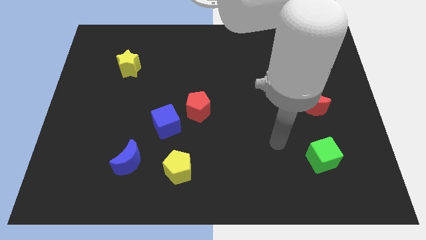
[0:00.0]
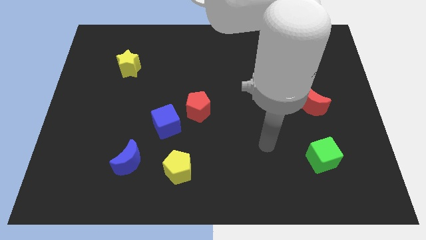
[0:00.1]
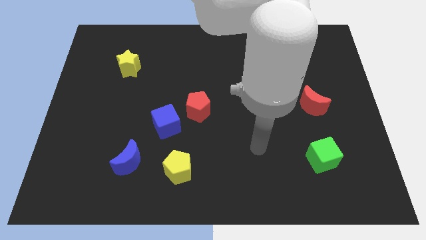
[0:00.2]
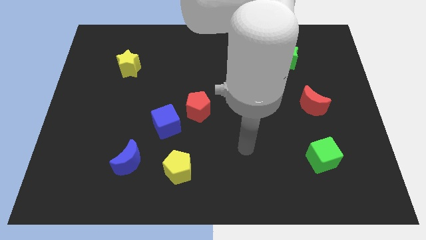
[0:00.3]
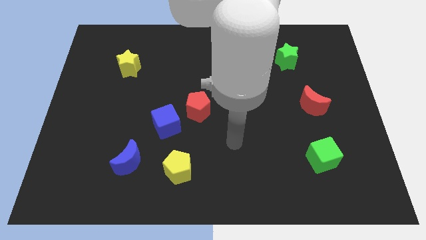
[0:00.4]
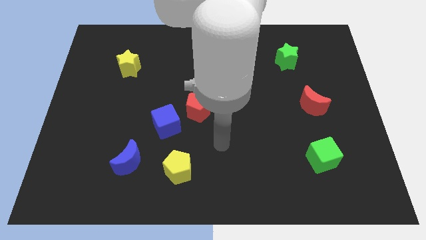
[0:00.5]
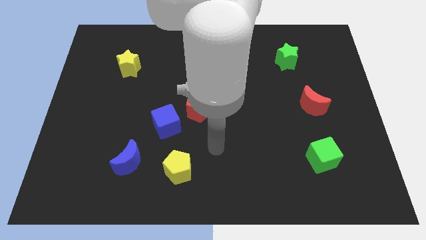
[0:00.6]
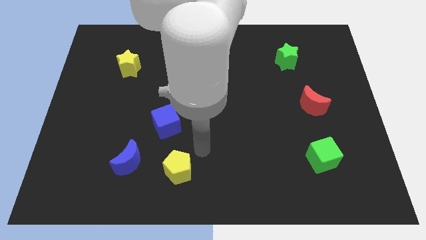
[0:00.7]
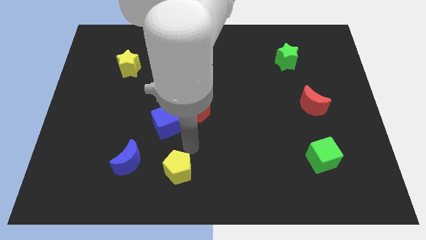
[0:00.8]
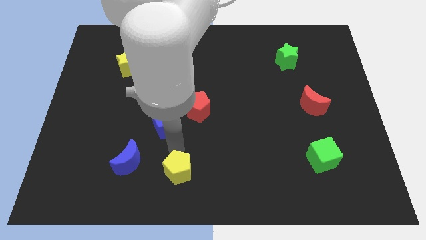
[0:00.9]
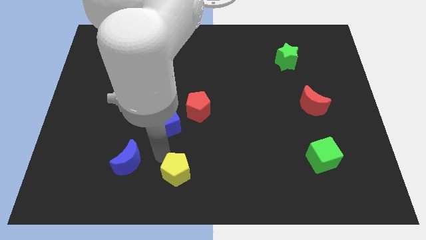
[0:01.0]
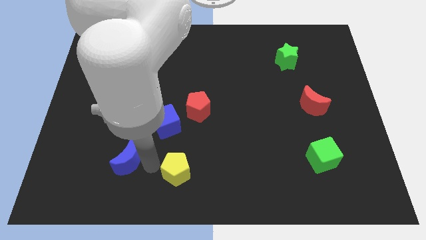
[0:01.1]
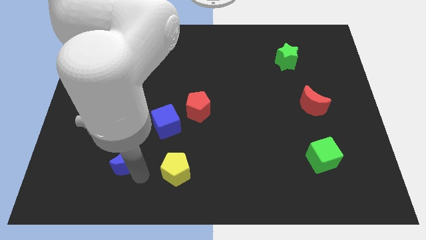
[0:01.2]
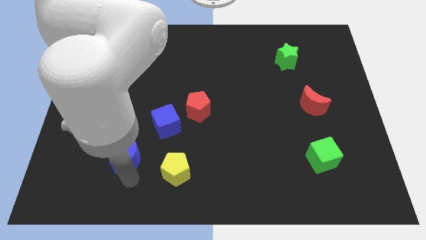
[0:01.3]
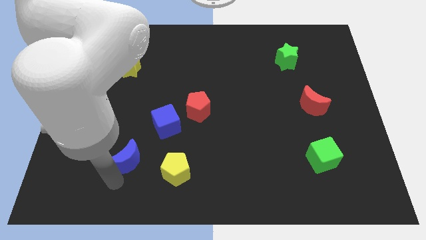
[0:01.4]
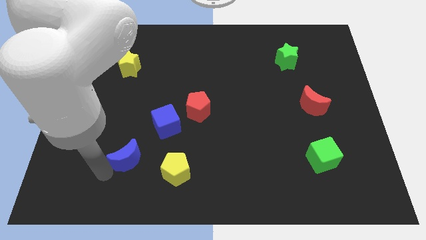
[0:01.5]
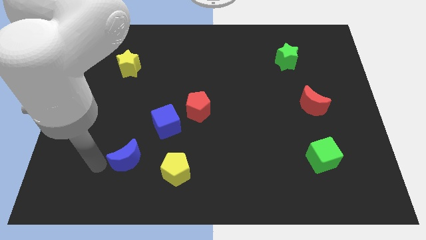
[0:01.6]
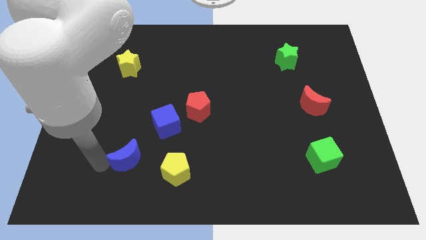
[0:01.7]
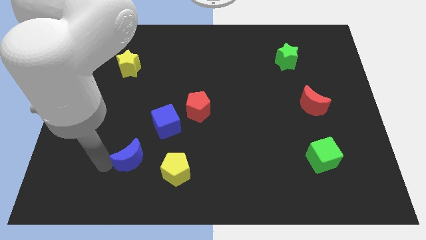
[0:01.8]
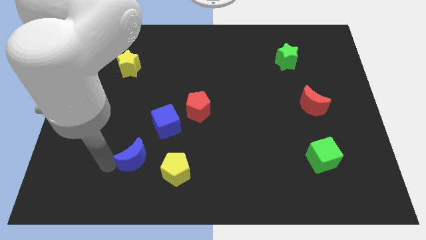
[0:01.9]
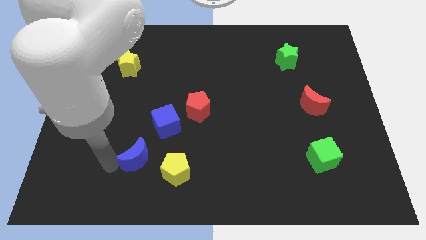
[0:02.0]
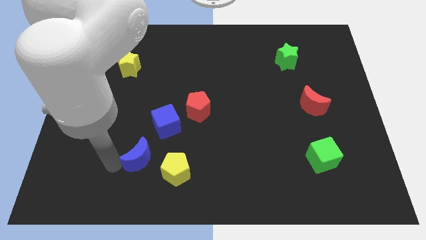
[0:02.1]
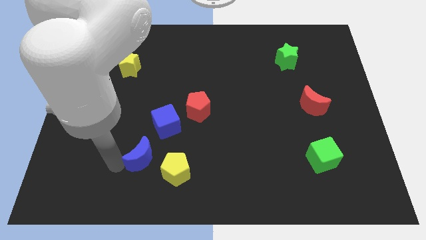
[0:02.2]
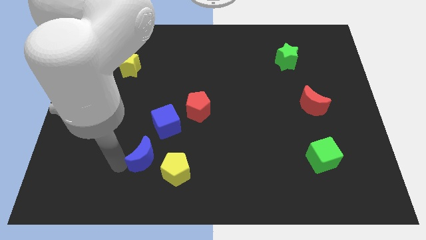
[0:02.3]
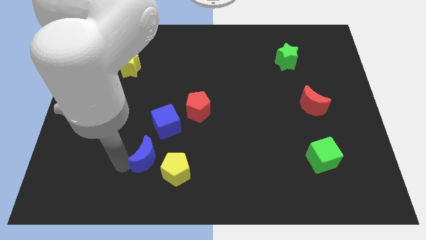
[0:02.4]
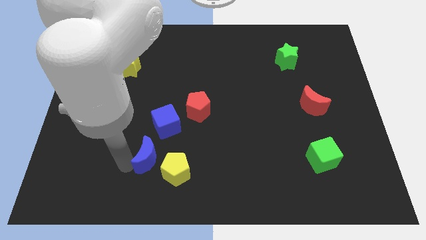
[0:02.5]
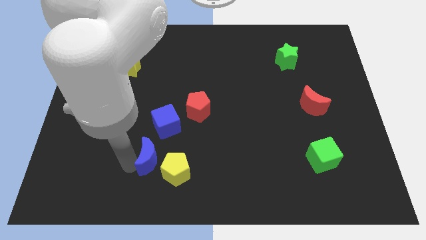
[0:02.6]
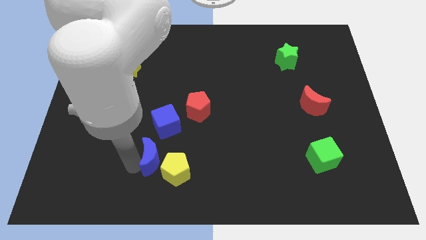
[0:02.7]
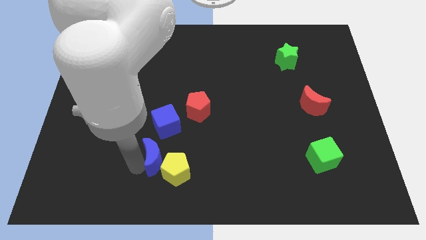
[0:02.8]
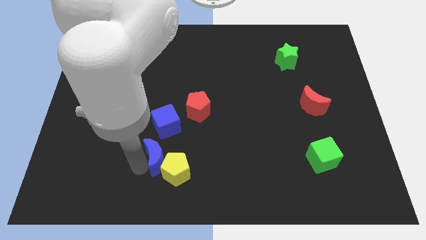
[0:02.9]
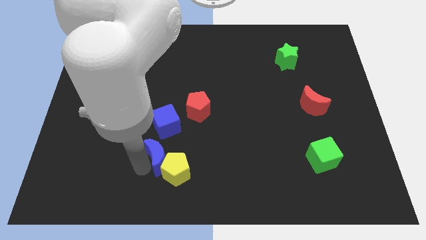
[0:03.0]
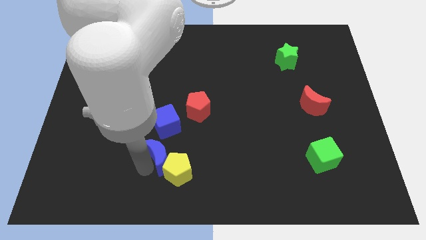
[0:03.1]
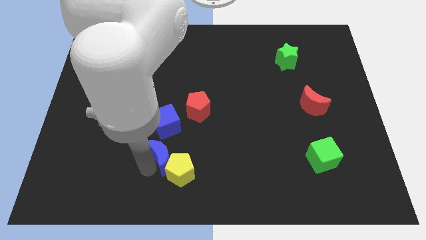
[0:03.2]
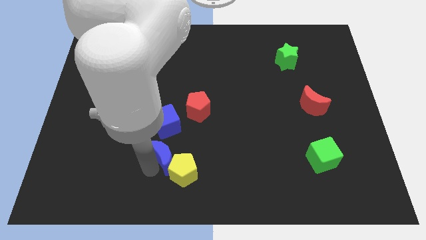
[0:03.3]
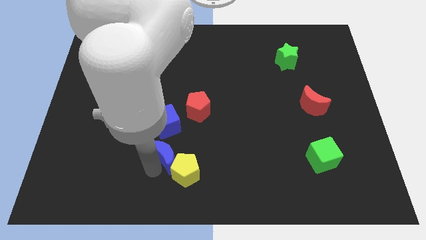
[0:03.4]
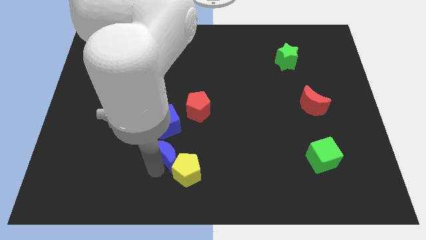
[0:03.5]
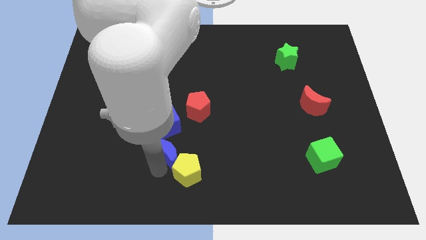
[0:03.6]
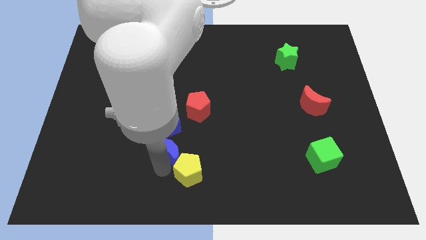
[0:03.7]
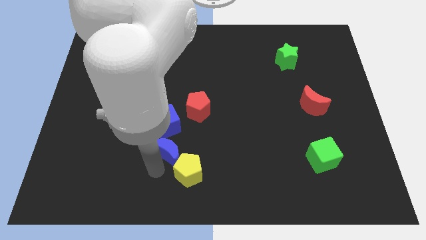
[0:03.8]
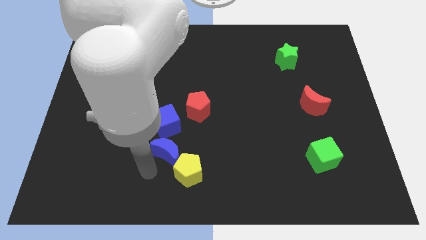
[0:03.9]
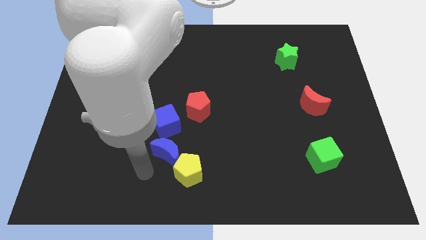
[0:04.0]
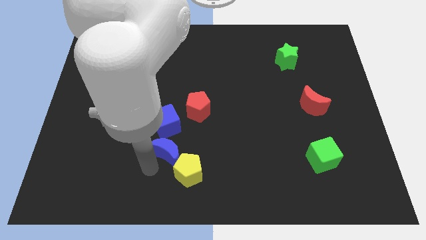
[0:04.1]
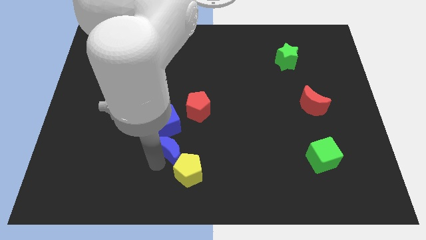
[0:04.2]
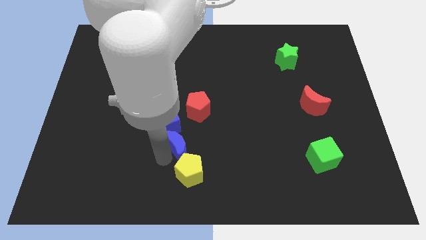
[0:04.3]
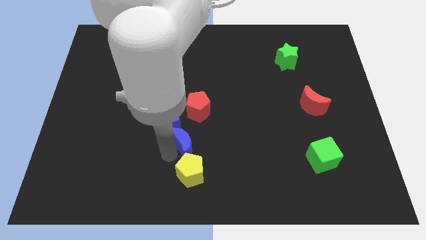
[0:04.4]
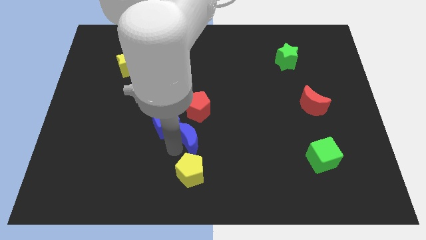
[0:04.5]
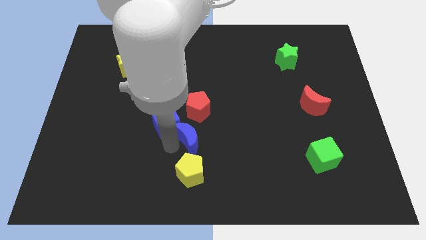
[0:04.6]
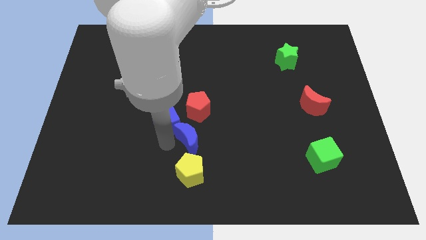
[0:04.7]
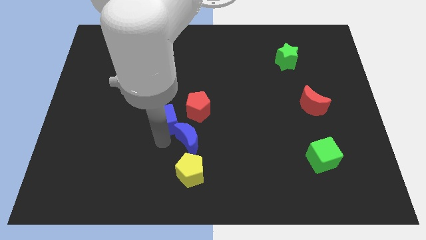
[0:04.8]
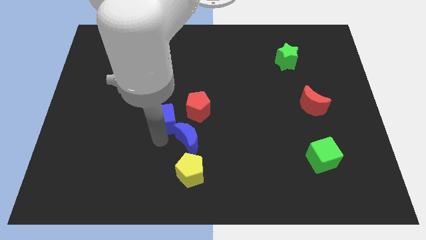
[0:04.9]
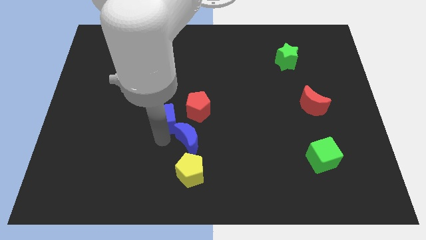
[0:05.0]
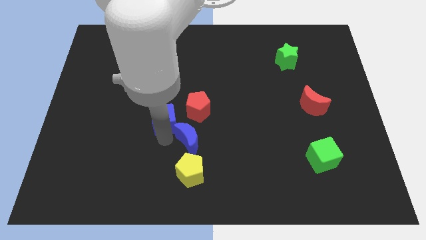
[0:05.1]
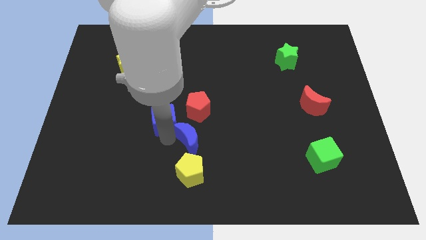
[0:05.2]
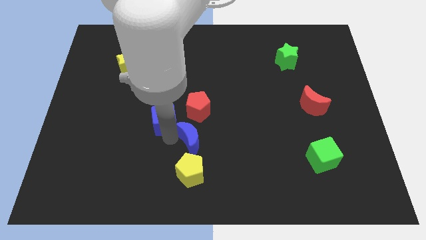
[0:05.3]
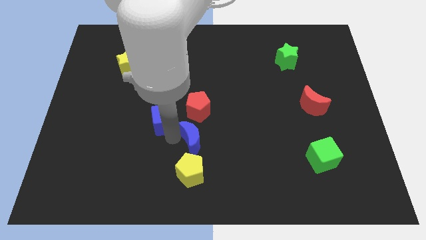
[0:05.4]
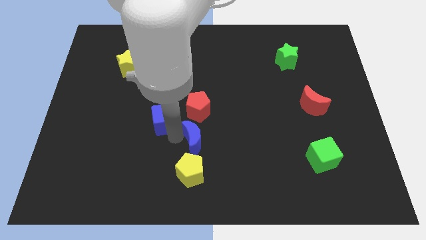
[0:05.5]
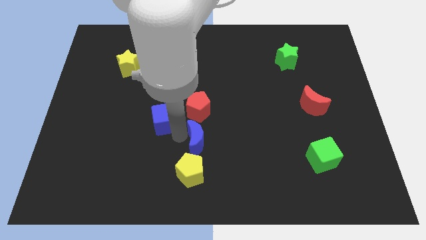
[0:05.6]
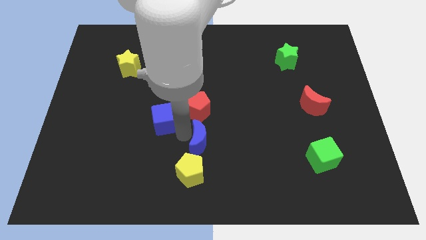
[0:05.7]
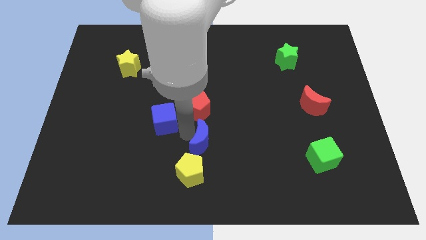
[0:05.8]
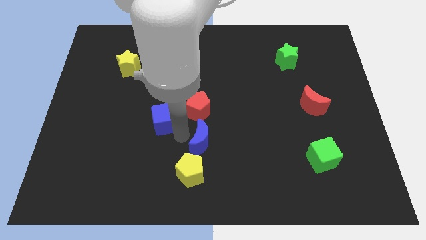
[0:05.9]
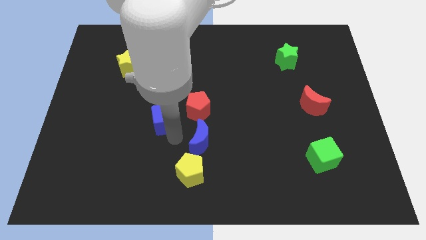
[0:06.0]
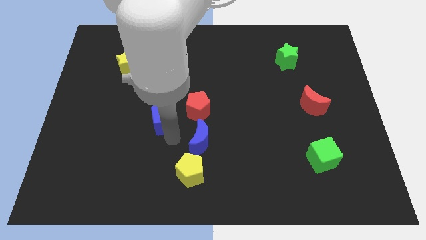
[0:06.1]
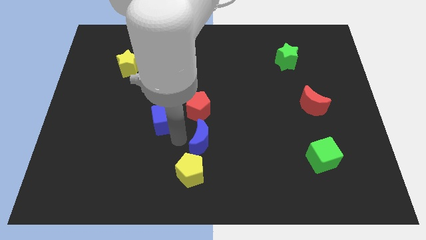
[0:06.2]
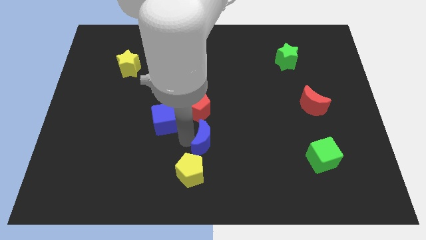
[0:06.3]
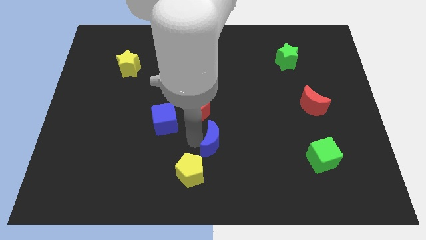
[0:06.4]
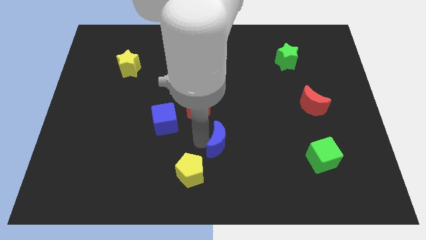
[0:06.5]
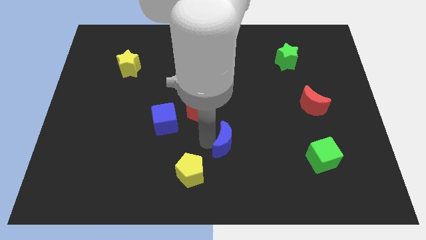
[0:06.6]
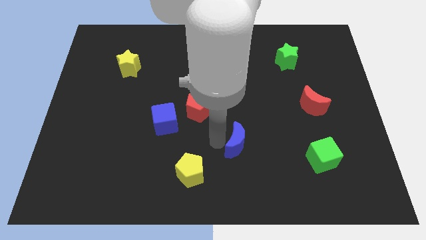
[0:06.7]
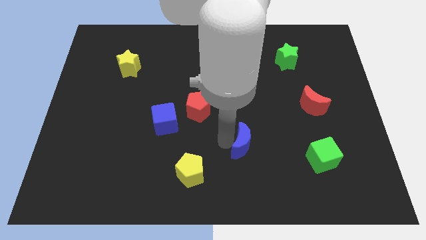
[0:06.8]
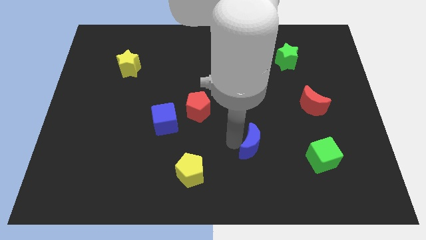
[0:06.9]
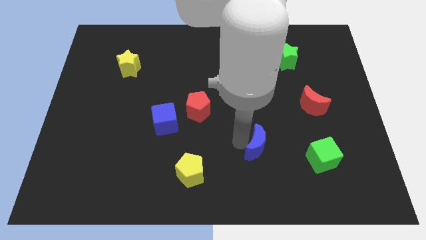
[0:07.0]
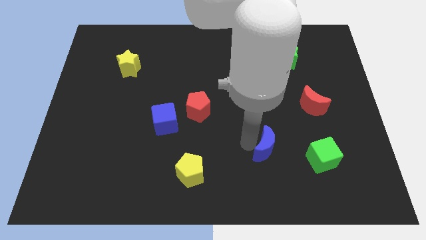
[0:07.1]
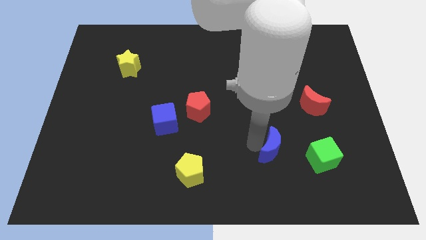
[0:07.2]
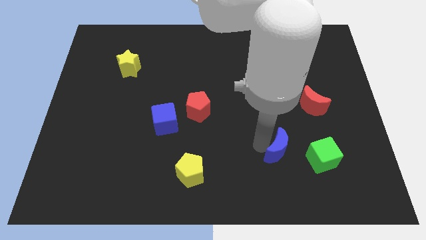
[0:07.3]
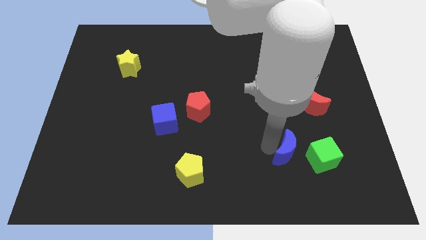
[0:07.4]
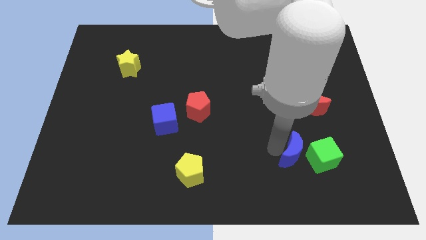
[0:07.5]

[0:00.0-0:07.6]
push the blue moon towards the green cube
